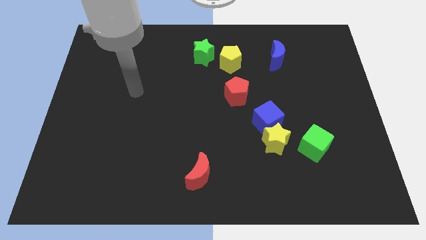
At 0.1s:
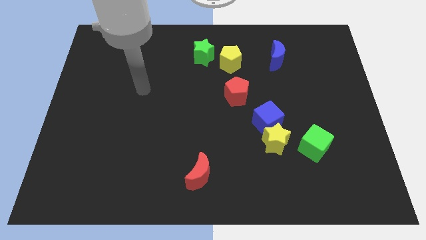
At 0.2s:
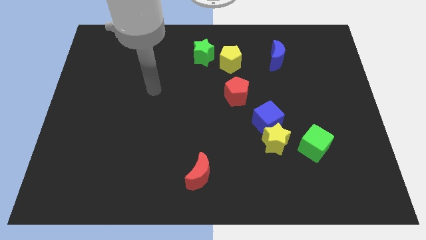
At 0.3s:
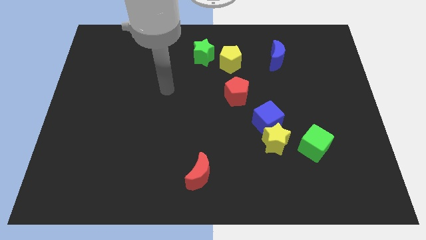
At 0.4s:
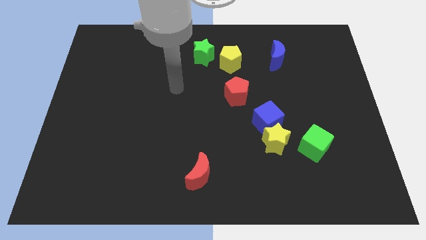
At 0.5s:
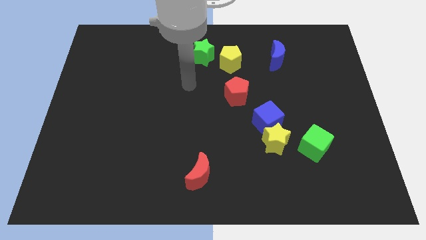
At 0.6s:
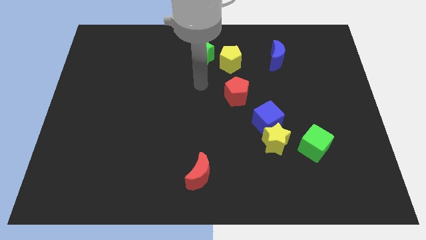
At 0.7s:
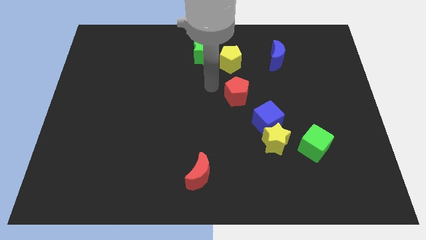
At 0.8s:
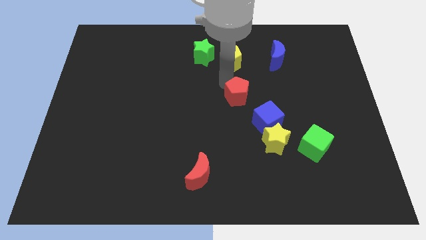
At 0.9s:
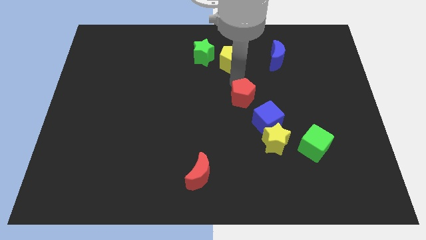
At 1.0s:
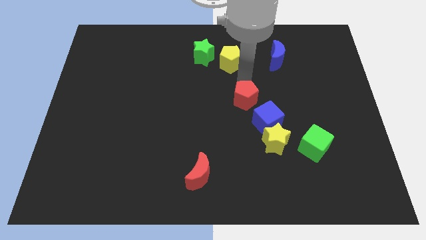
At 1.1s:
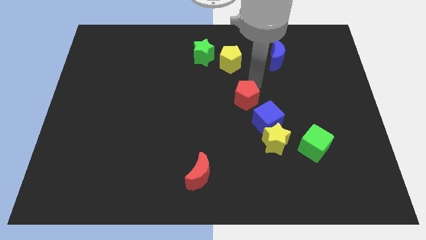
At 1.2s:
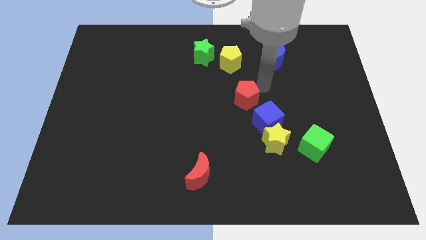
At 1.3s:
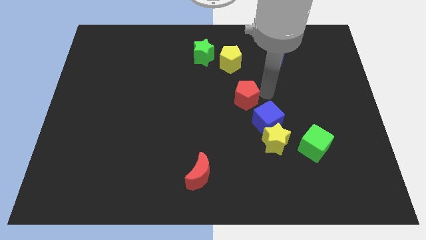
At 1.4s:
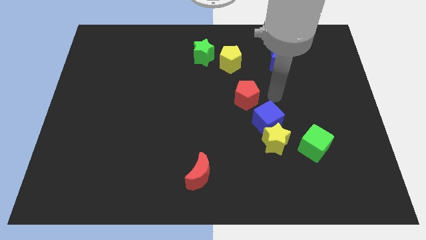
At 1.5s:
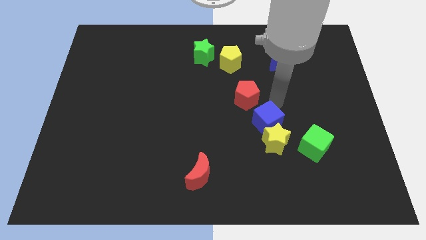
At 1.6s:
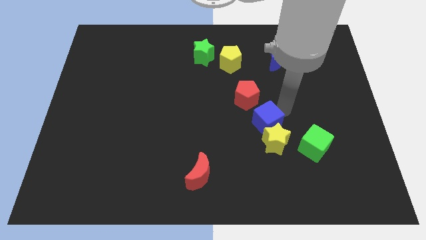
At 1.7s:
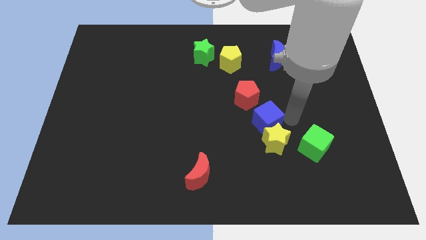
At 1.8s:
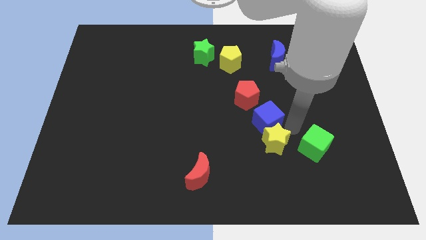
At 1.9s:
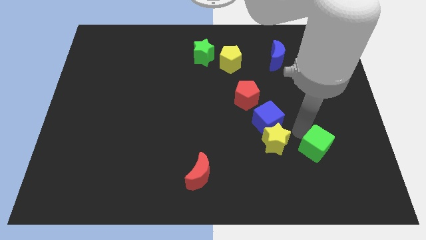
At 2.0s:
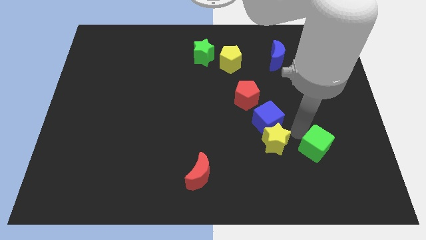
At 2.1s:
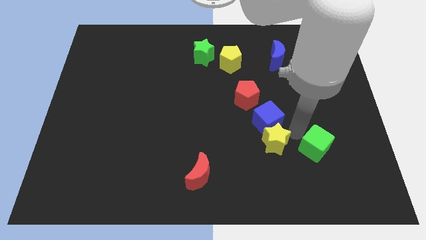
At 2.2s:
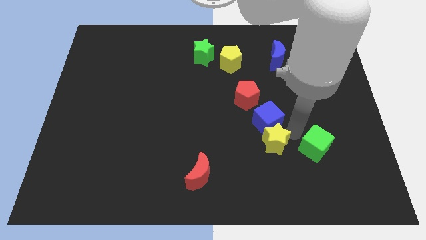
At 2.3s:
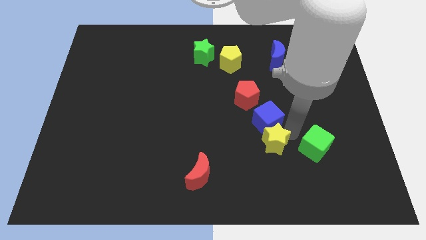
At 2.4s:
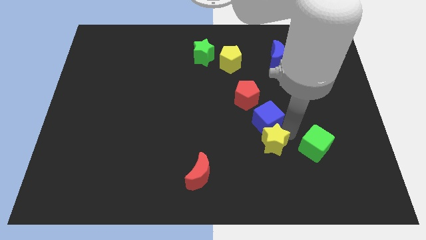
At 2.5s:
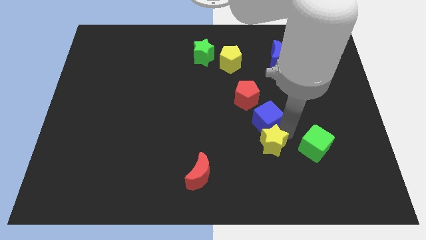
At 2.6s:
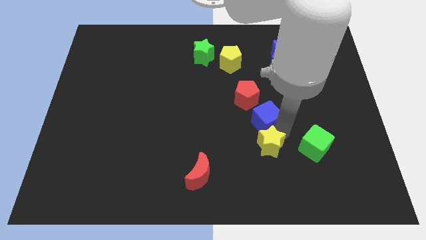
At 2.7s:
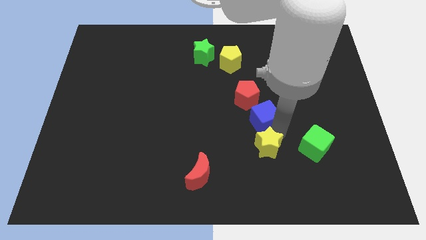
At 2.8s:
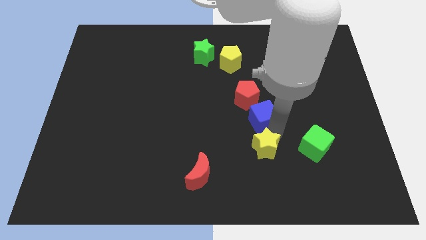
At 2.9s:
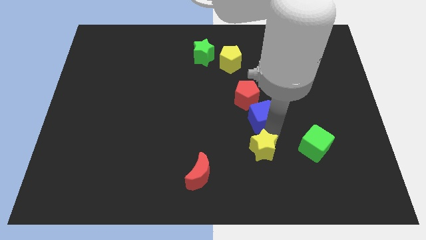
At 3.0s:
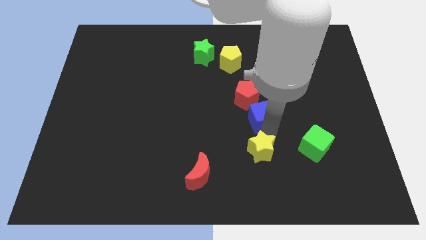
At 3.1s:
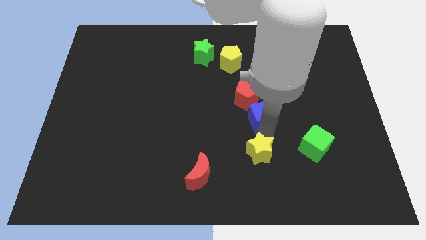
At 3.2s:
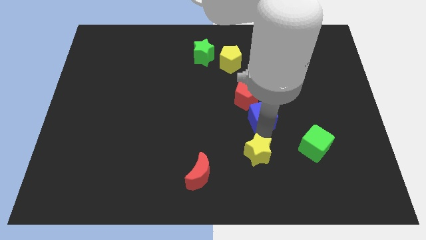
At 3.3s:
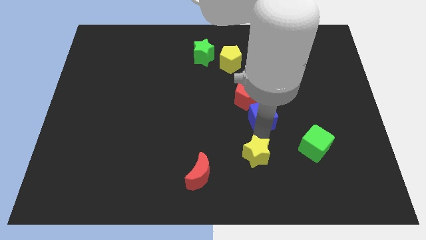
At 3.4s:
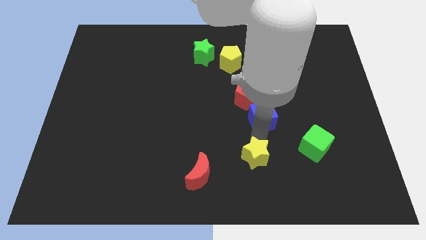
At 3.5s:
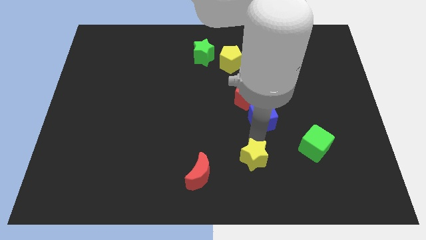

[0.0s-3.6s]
separate the yellow star from the blue cube and green cube

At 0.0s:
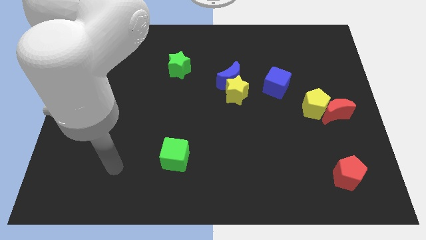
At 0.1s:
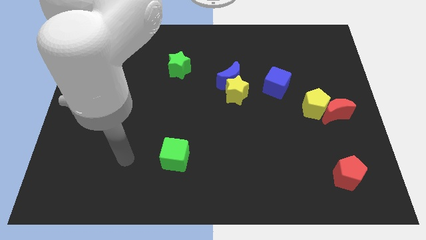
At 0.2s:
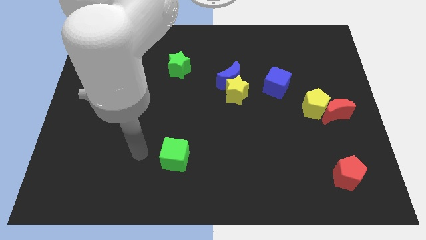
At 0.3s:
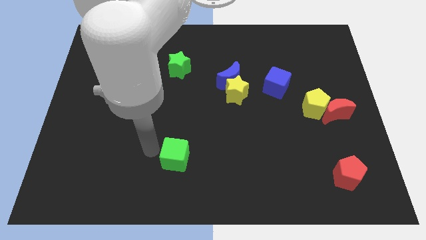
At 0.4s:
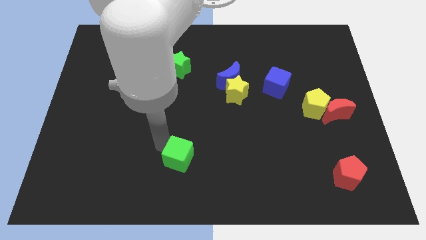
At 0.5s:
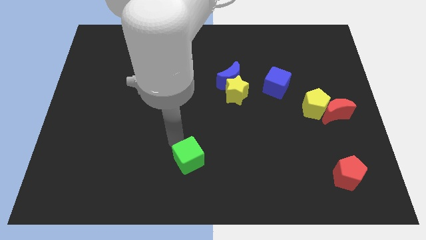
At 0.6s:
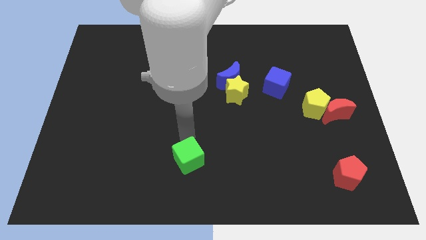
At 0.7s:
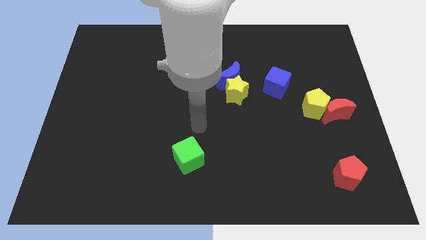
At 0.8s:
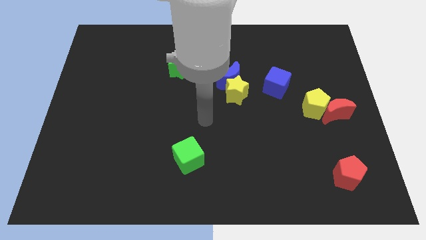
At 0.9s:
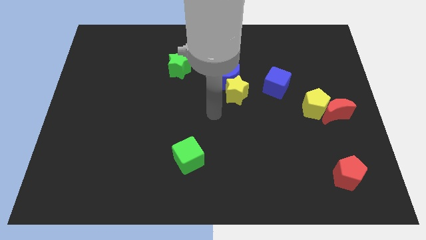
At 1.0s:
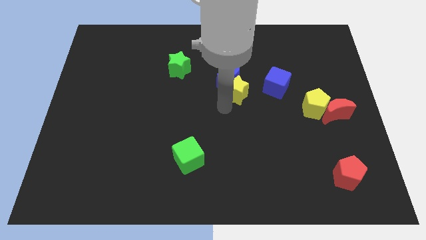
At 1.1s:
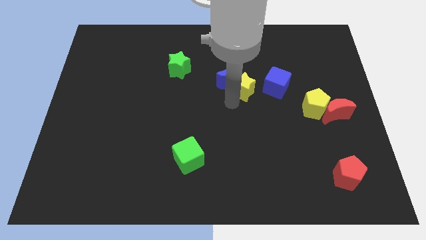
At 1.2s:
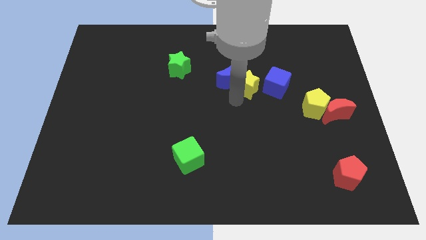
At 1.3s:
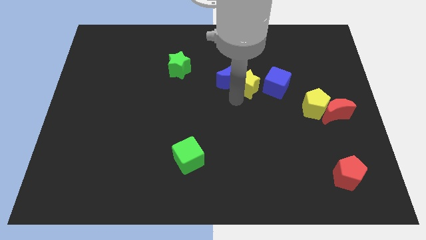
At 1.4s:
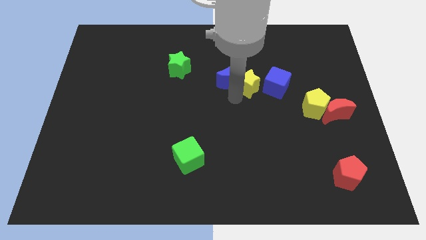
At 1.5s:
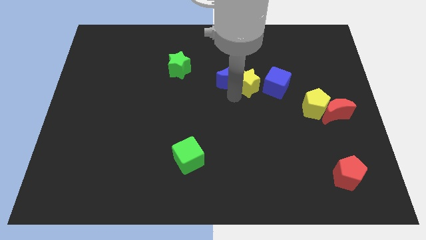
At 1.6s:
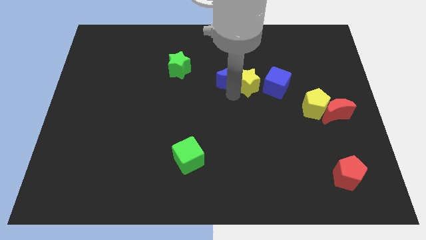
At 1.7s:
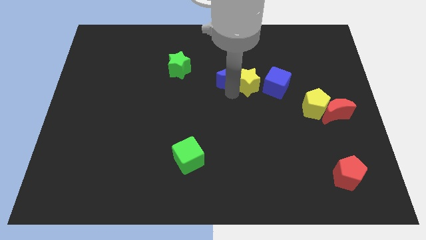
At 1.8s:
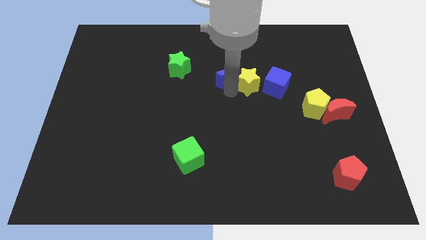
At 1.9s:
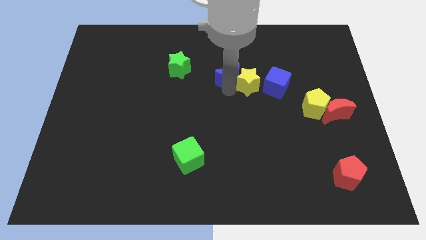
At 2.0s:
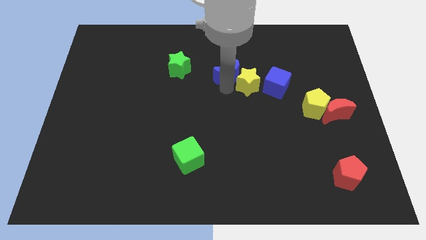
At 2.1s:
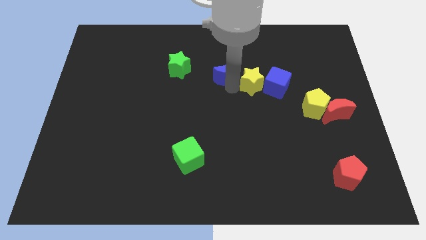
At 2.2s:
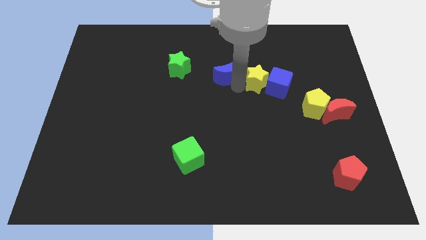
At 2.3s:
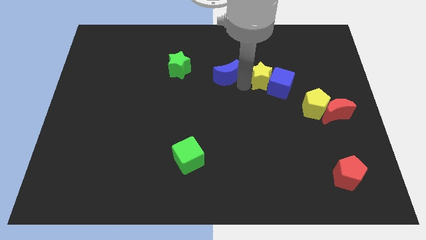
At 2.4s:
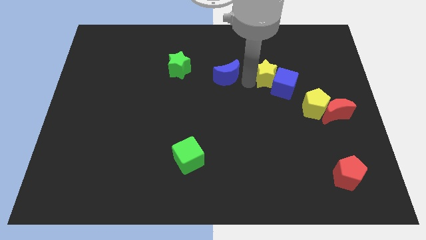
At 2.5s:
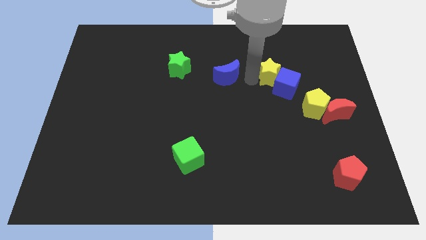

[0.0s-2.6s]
separate the blue moon from the yellow star

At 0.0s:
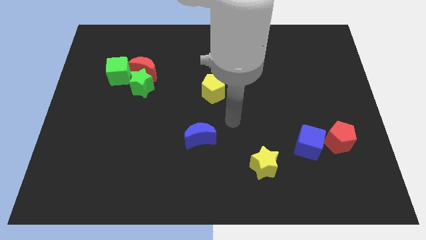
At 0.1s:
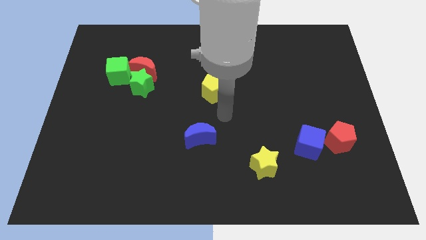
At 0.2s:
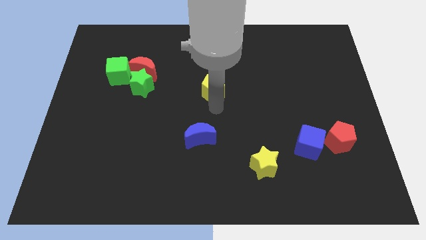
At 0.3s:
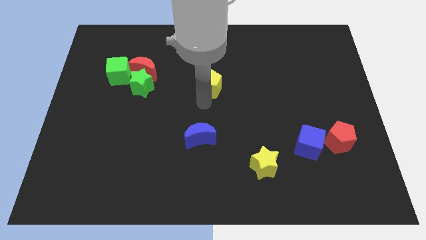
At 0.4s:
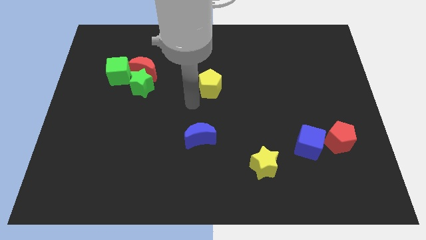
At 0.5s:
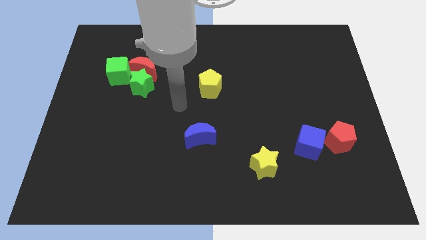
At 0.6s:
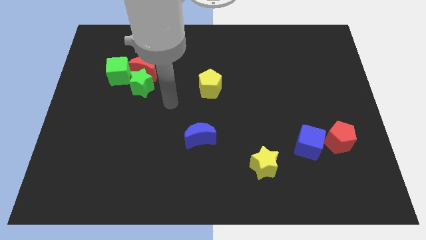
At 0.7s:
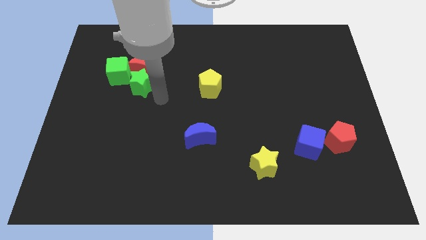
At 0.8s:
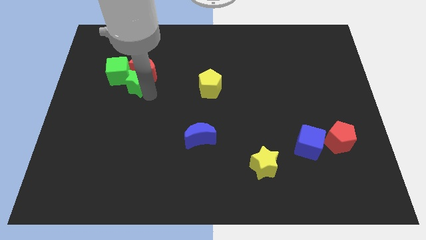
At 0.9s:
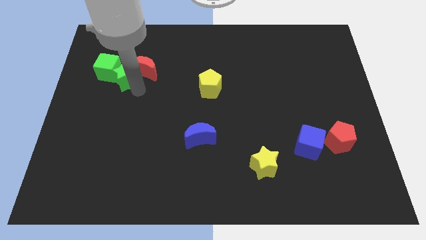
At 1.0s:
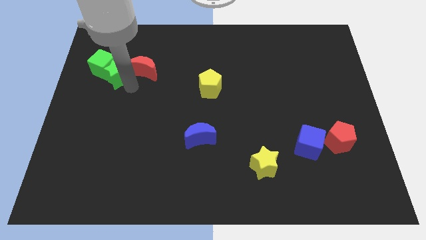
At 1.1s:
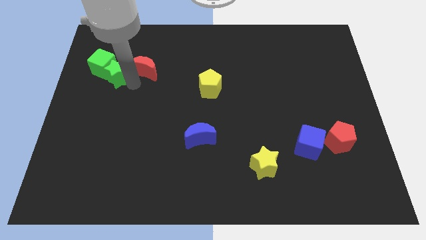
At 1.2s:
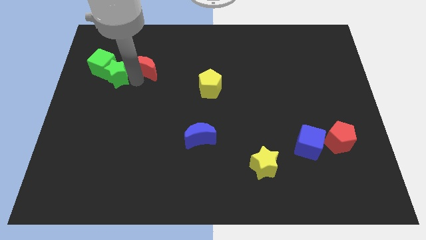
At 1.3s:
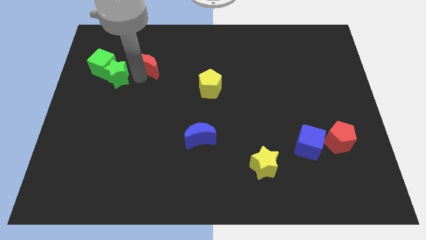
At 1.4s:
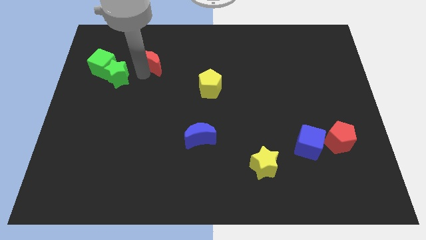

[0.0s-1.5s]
move the red moon away from the green star and green cube

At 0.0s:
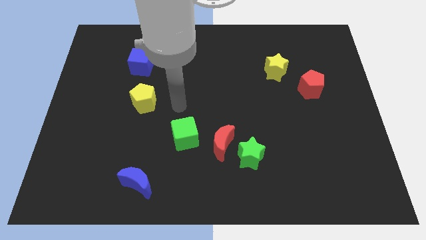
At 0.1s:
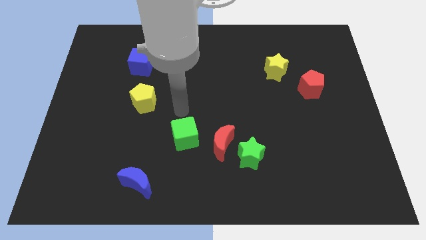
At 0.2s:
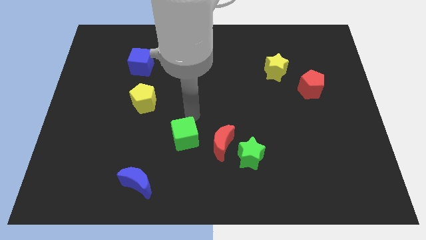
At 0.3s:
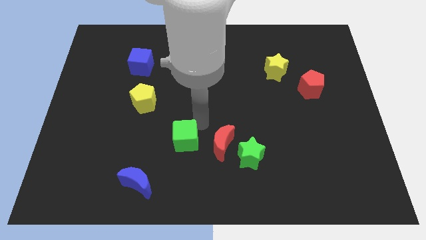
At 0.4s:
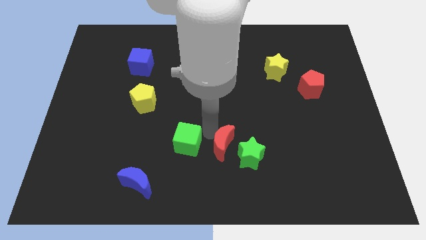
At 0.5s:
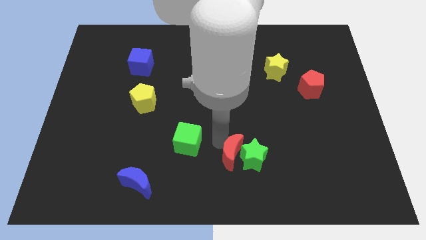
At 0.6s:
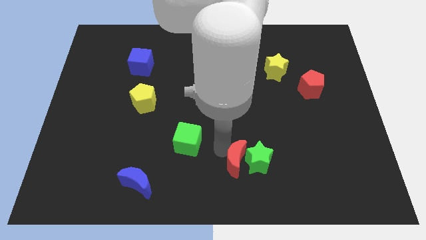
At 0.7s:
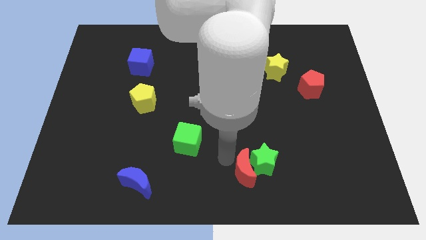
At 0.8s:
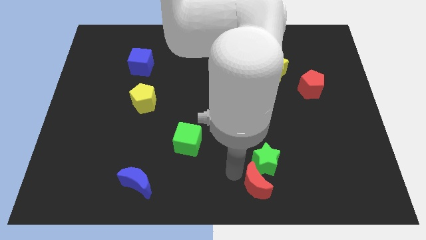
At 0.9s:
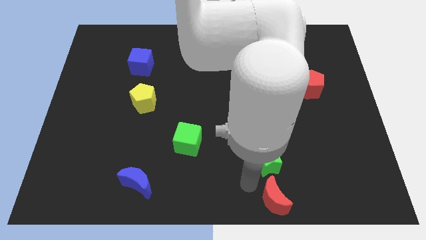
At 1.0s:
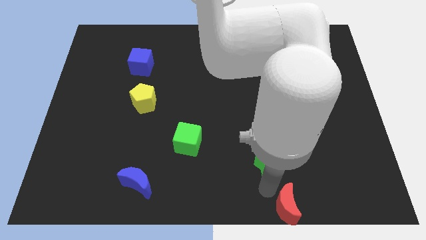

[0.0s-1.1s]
move the green star away from the red moon

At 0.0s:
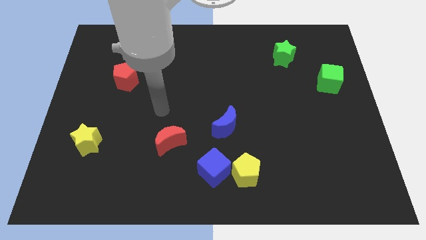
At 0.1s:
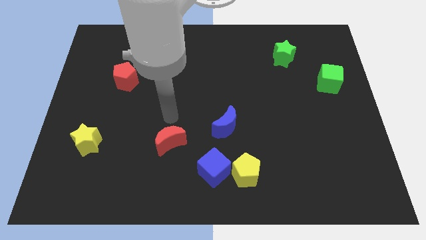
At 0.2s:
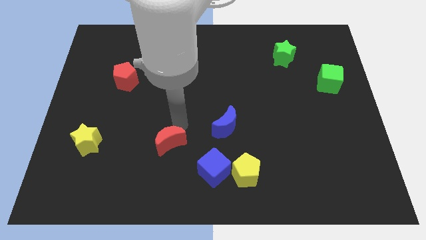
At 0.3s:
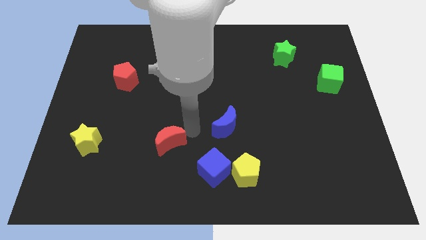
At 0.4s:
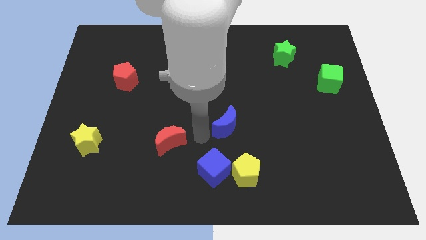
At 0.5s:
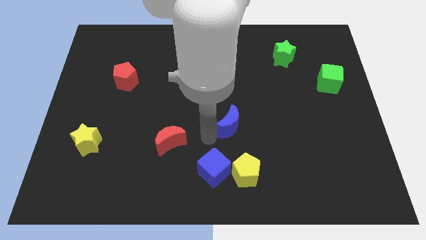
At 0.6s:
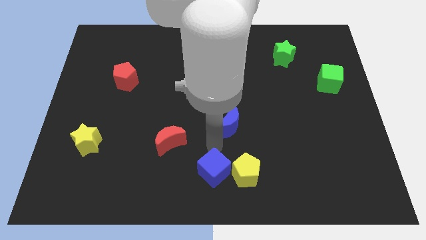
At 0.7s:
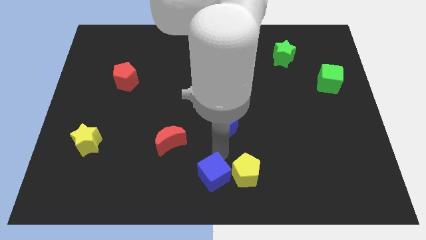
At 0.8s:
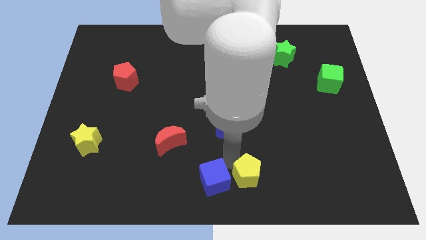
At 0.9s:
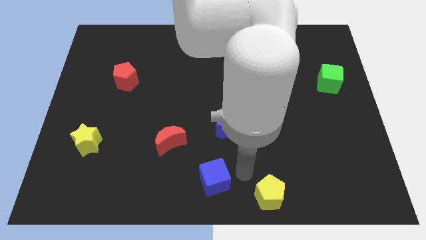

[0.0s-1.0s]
separate the blue cube from the yellow pentagon
